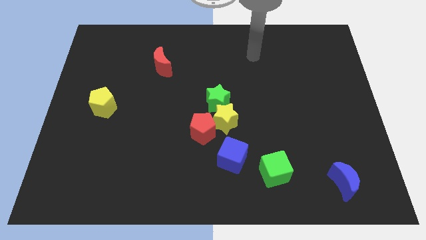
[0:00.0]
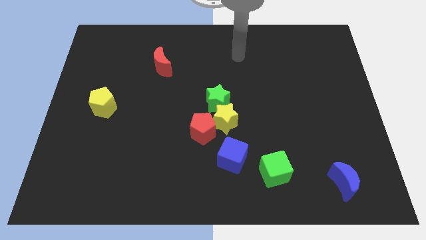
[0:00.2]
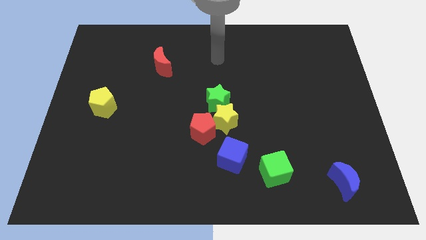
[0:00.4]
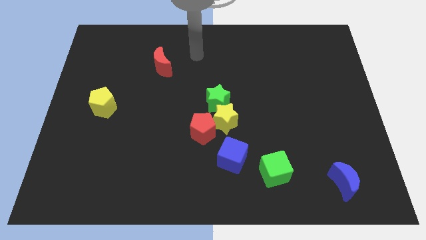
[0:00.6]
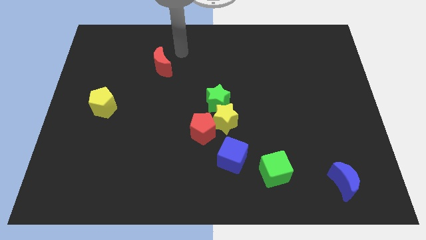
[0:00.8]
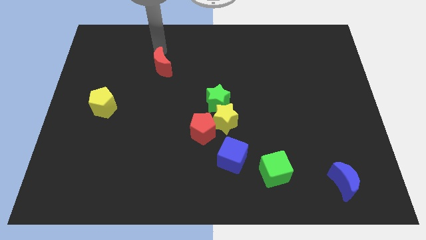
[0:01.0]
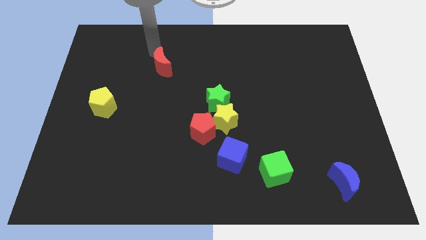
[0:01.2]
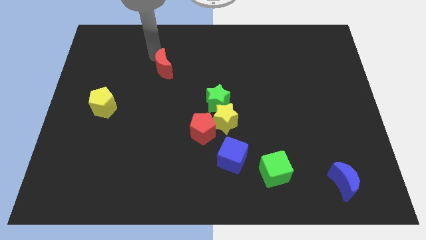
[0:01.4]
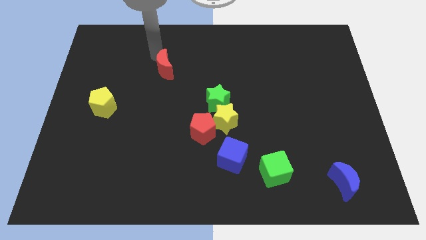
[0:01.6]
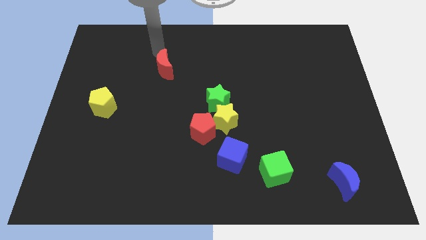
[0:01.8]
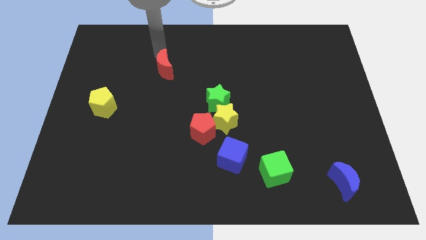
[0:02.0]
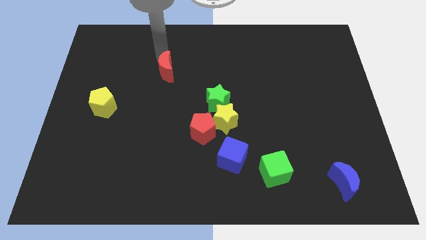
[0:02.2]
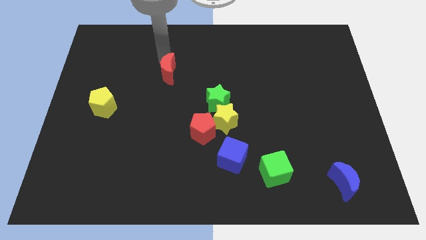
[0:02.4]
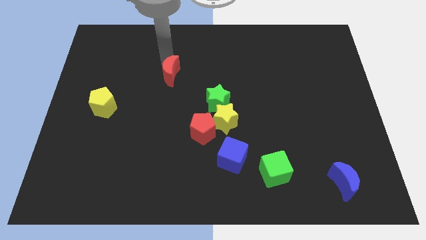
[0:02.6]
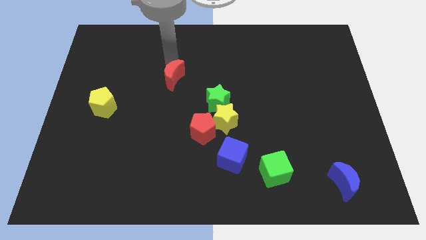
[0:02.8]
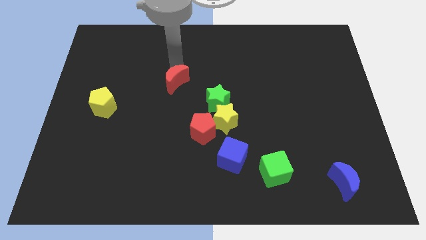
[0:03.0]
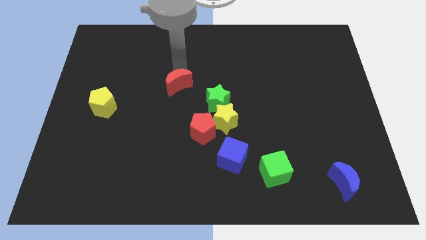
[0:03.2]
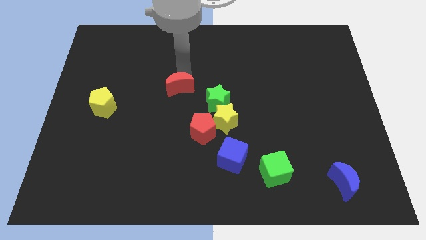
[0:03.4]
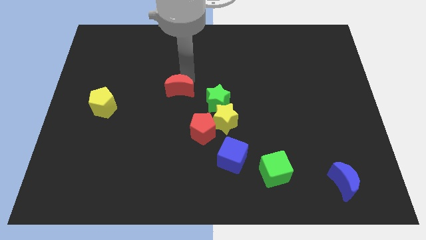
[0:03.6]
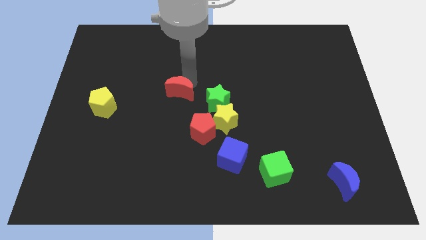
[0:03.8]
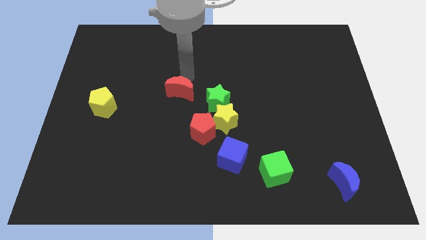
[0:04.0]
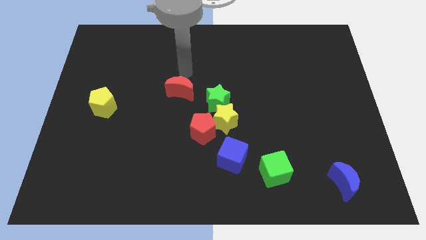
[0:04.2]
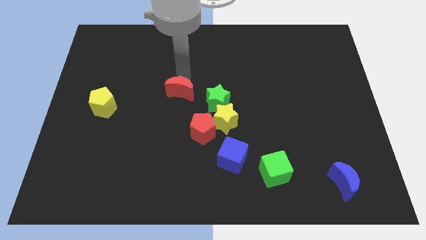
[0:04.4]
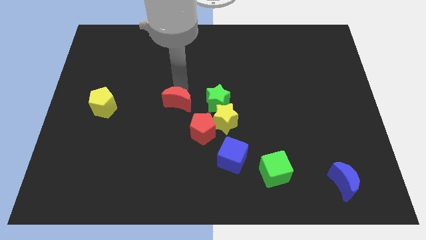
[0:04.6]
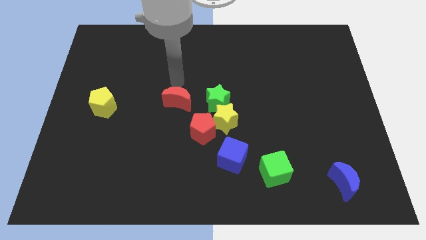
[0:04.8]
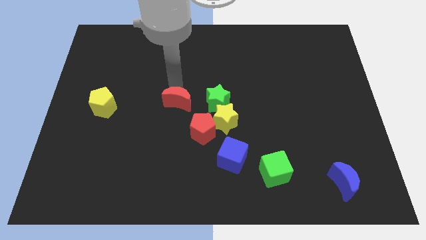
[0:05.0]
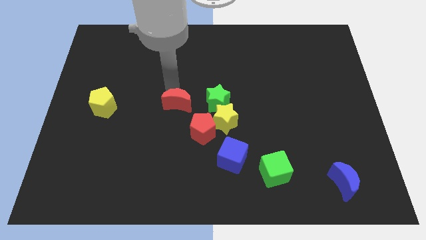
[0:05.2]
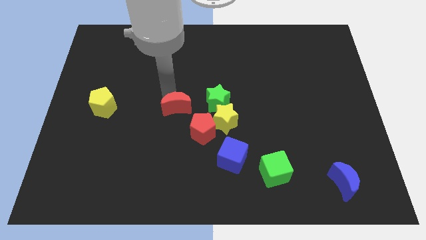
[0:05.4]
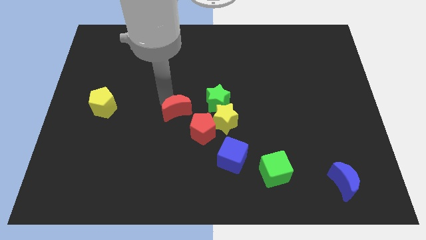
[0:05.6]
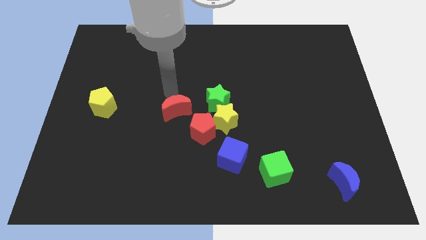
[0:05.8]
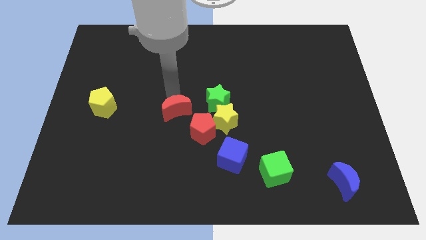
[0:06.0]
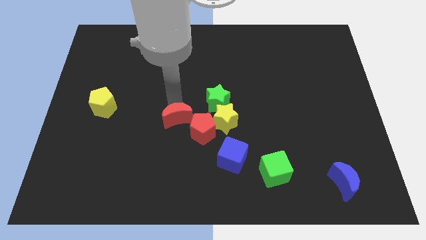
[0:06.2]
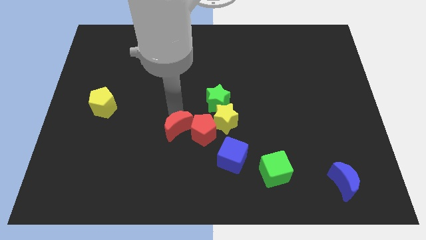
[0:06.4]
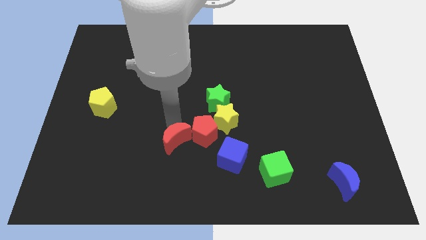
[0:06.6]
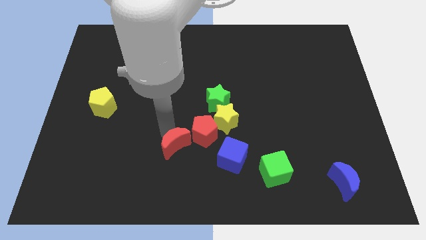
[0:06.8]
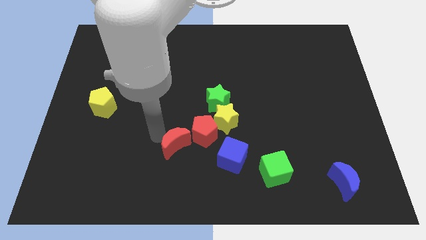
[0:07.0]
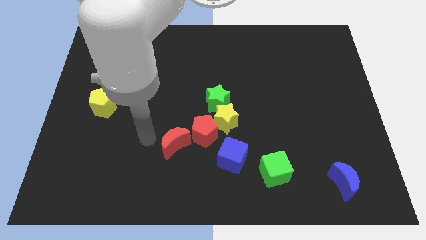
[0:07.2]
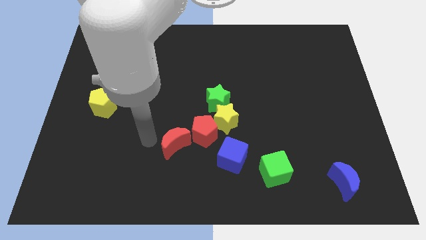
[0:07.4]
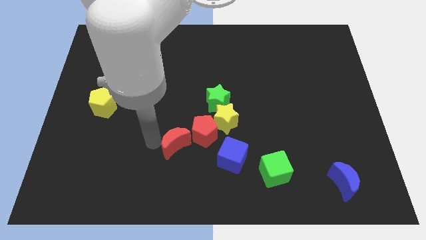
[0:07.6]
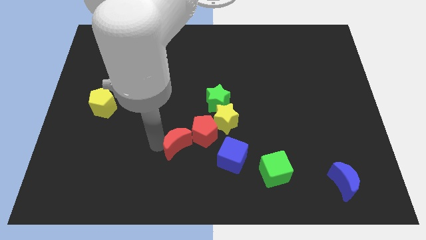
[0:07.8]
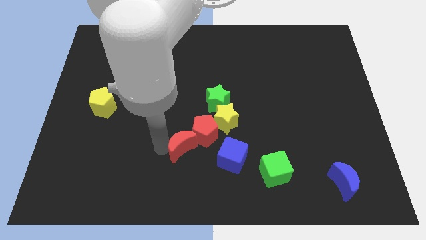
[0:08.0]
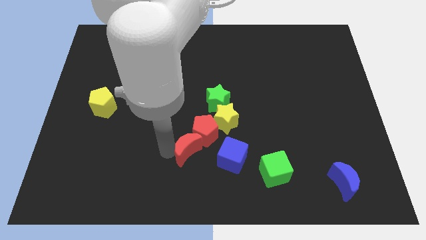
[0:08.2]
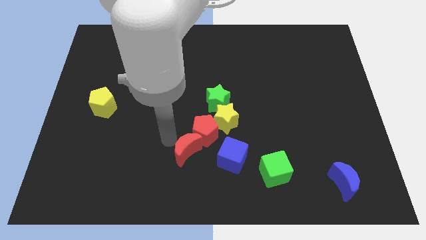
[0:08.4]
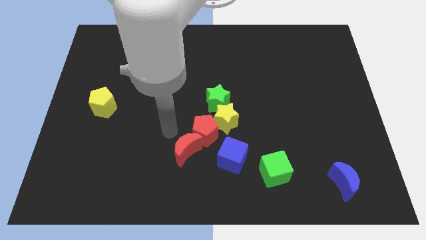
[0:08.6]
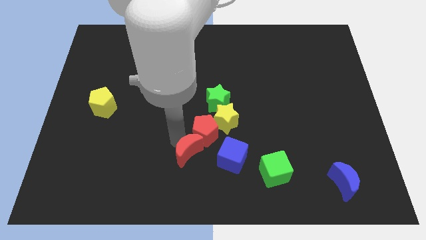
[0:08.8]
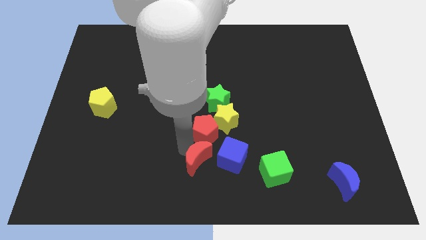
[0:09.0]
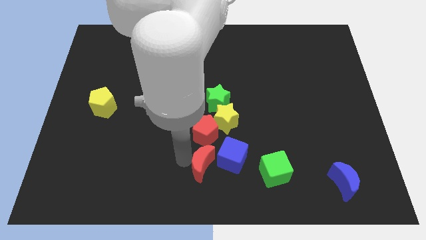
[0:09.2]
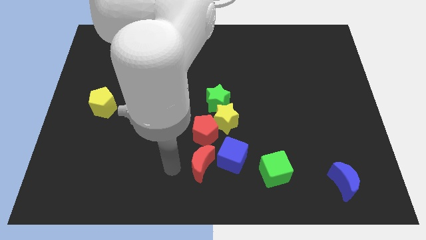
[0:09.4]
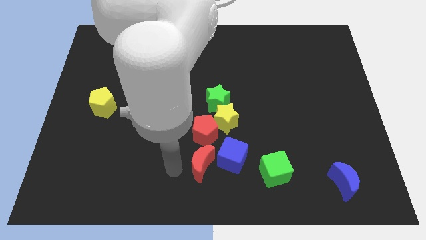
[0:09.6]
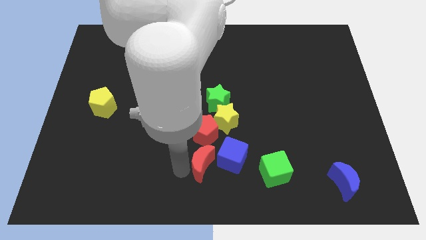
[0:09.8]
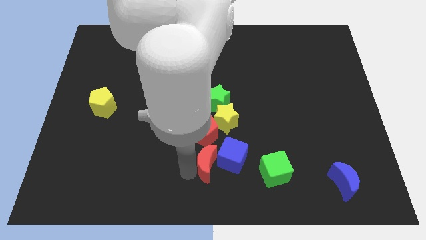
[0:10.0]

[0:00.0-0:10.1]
move the red moon below the yellow star

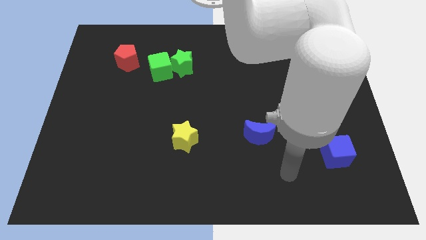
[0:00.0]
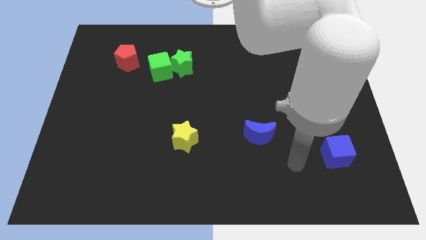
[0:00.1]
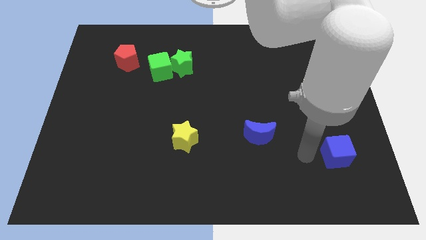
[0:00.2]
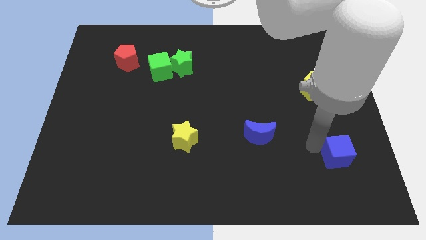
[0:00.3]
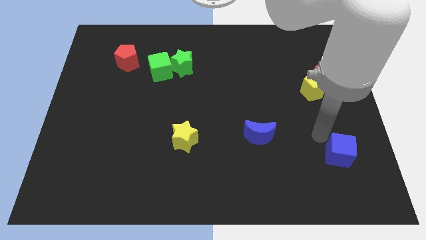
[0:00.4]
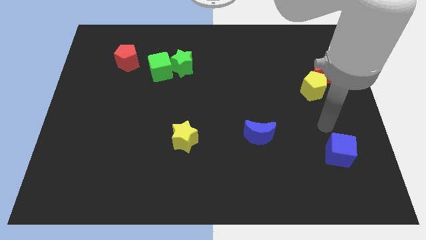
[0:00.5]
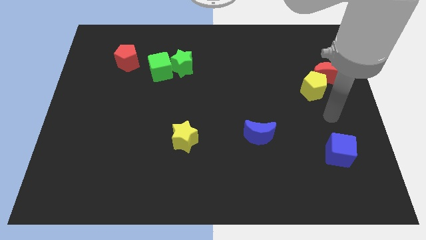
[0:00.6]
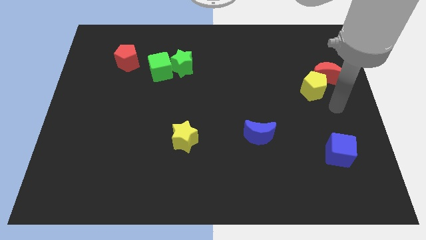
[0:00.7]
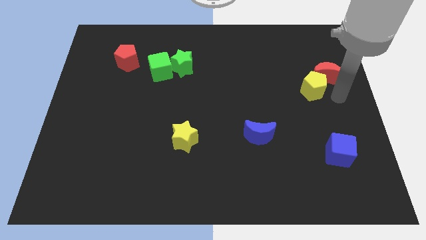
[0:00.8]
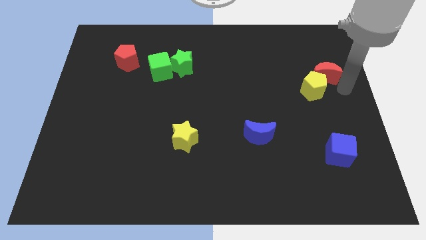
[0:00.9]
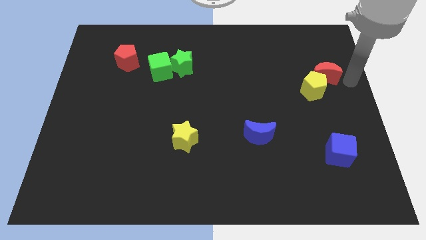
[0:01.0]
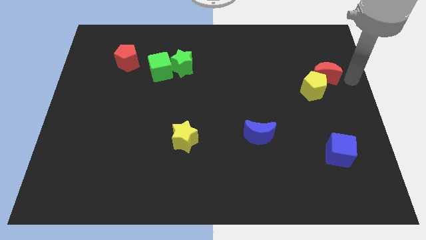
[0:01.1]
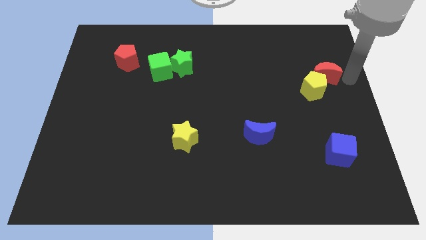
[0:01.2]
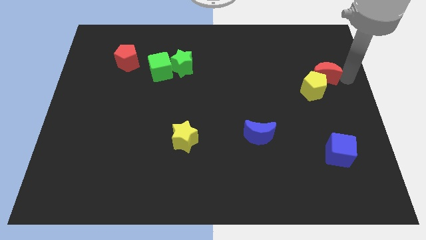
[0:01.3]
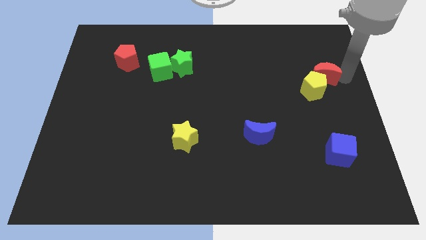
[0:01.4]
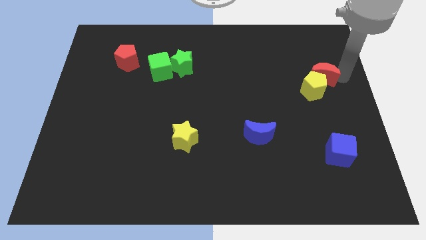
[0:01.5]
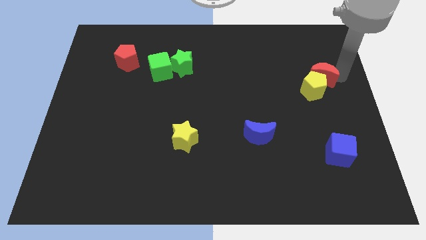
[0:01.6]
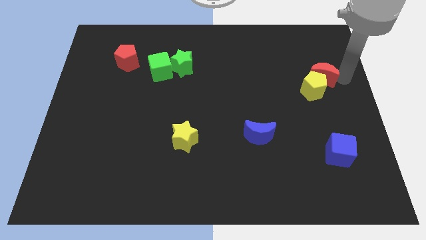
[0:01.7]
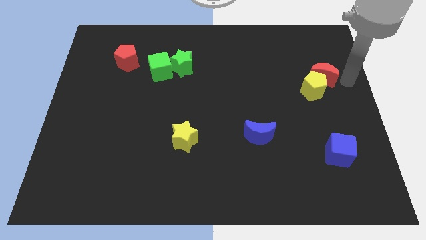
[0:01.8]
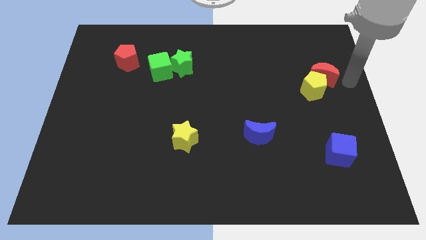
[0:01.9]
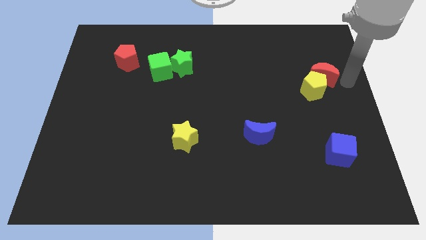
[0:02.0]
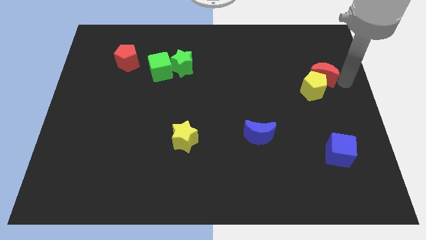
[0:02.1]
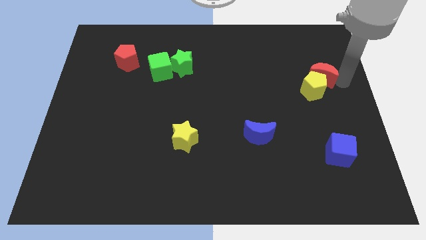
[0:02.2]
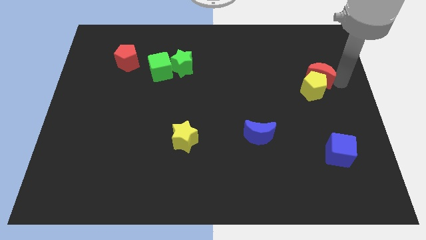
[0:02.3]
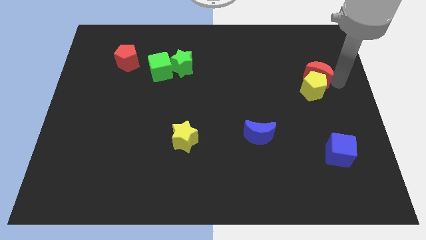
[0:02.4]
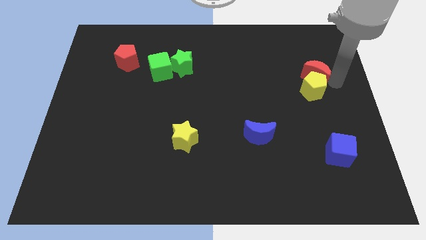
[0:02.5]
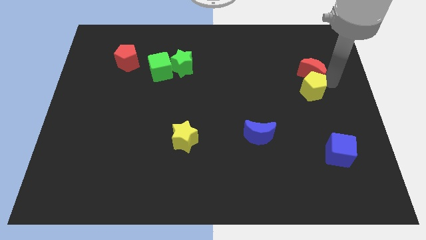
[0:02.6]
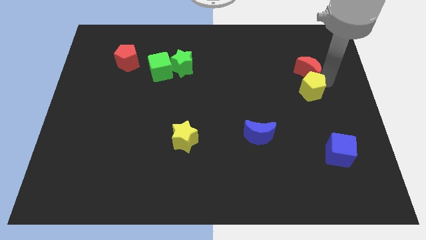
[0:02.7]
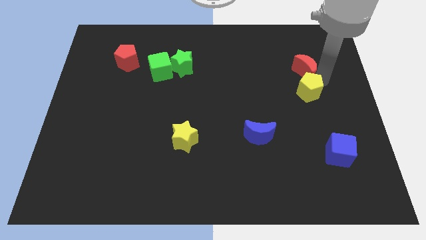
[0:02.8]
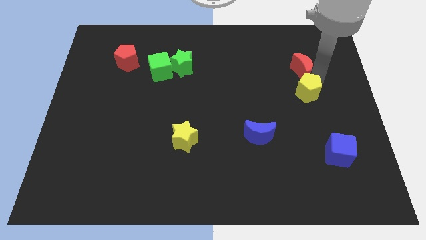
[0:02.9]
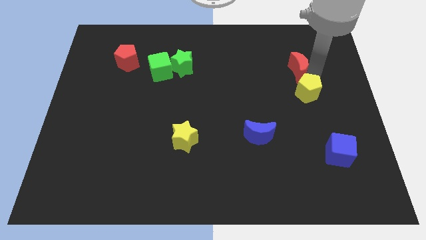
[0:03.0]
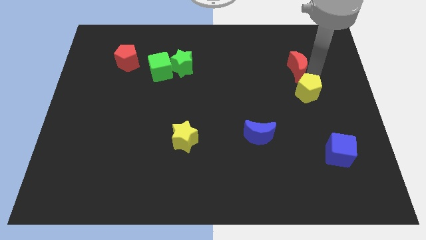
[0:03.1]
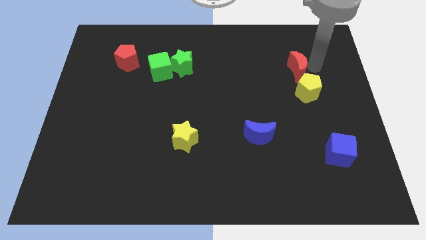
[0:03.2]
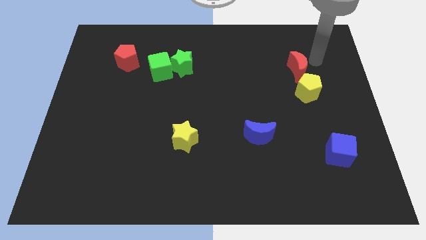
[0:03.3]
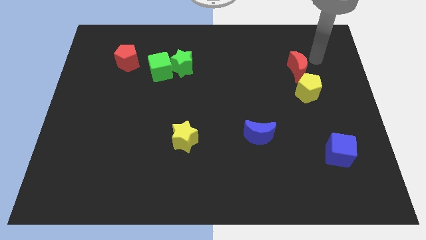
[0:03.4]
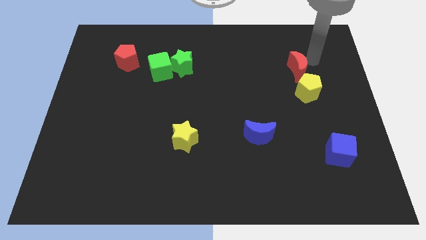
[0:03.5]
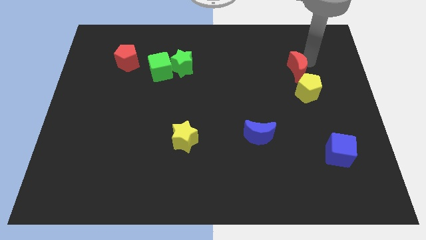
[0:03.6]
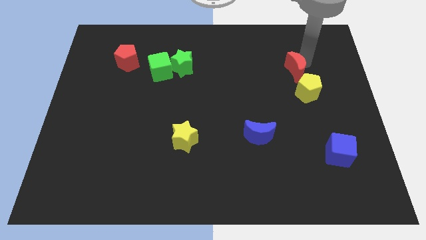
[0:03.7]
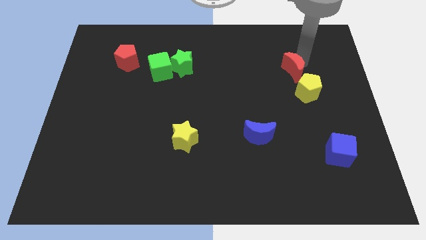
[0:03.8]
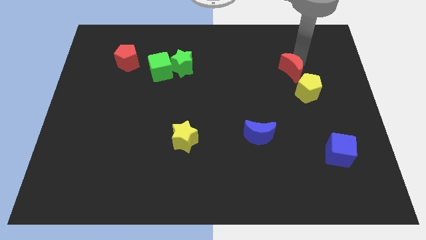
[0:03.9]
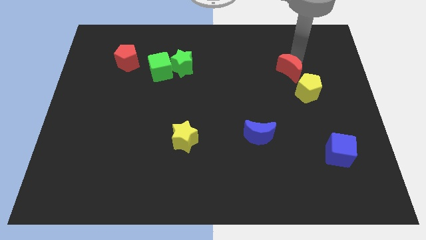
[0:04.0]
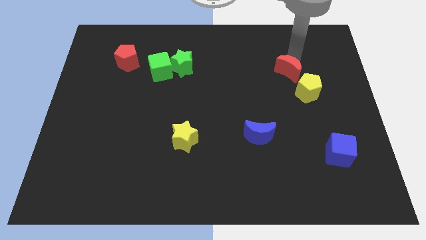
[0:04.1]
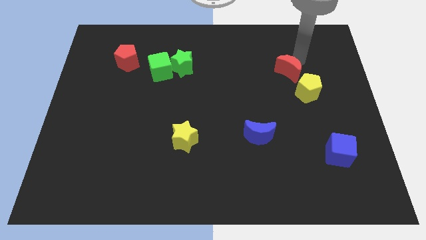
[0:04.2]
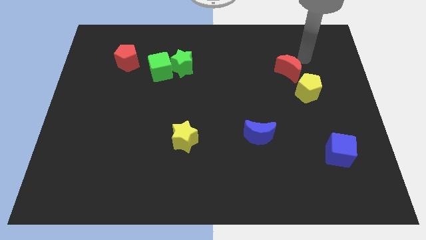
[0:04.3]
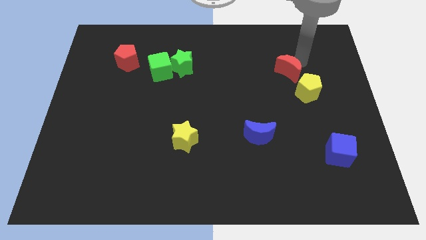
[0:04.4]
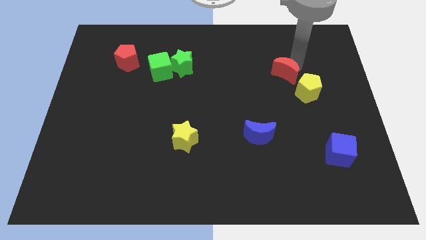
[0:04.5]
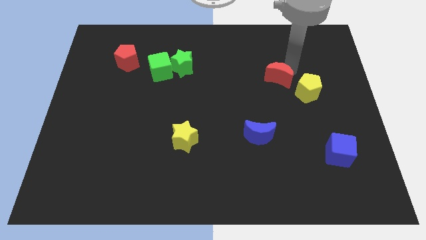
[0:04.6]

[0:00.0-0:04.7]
push the red moon left of the yellow pentagon
